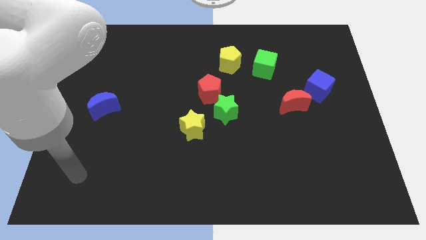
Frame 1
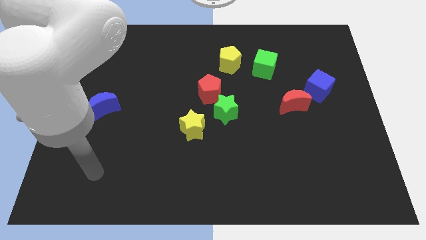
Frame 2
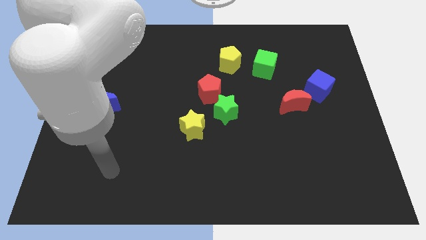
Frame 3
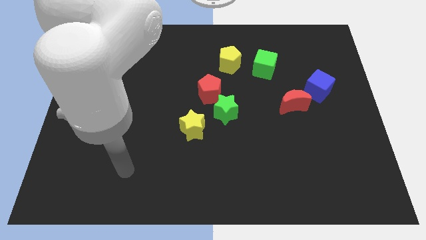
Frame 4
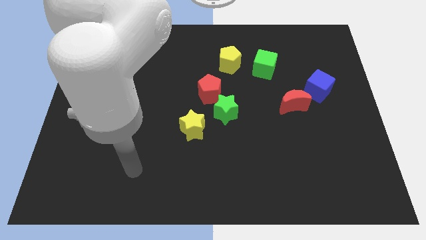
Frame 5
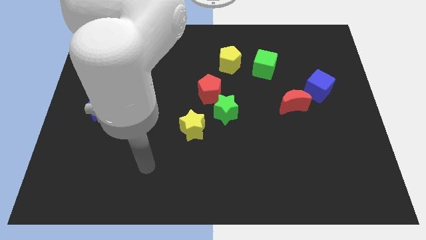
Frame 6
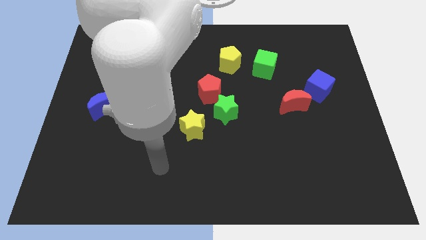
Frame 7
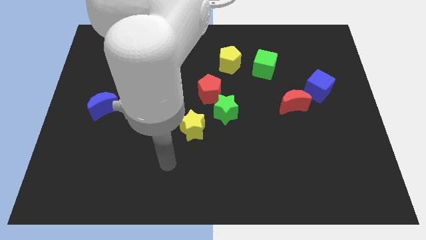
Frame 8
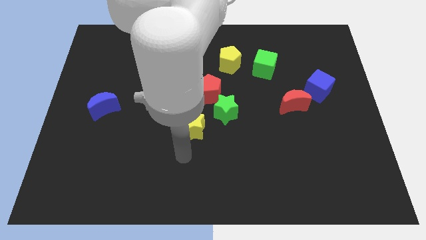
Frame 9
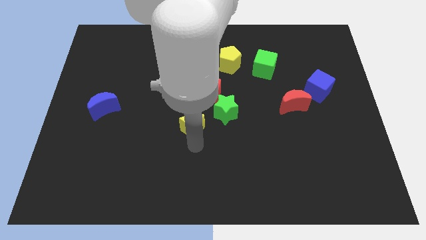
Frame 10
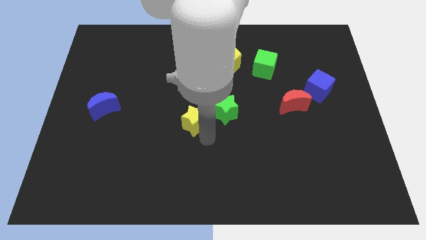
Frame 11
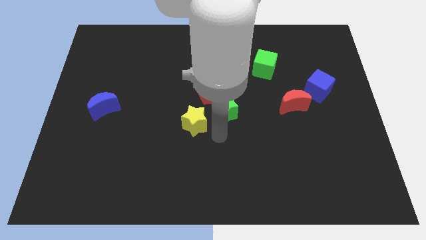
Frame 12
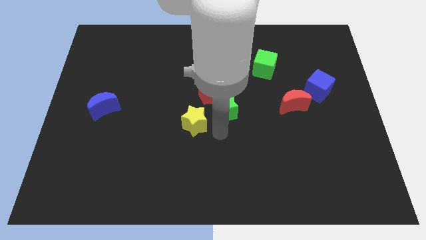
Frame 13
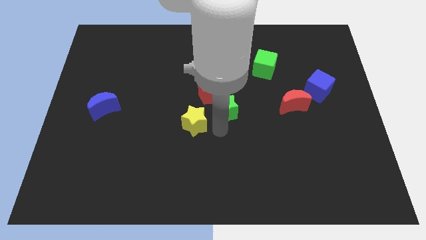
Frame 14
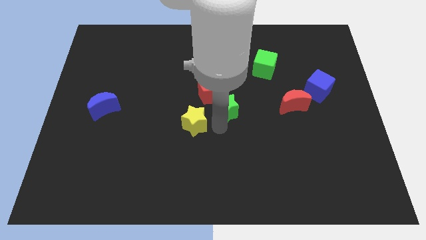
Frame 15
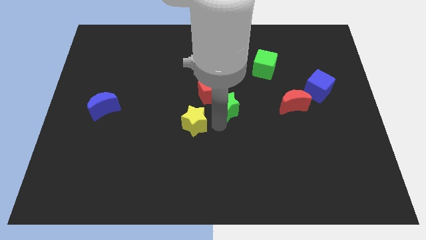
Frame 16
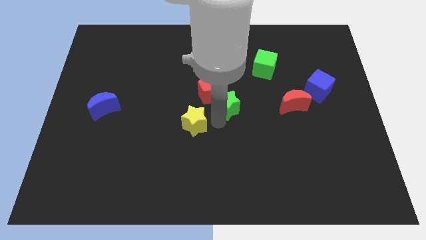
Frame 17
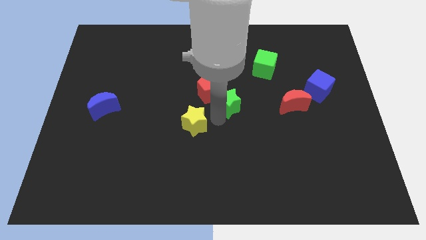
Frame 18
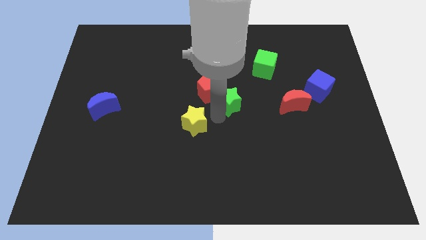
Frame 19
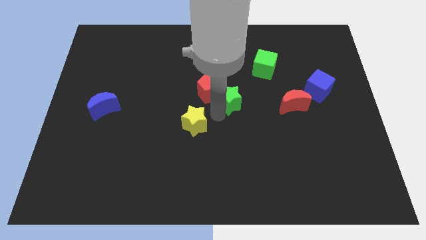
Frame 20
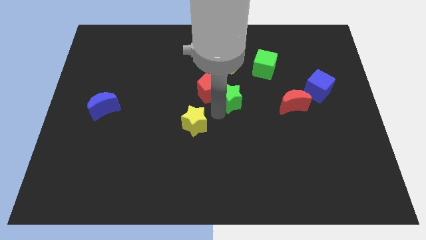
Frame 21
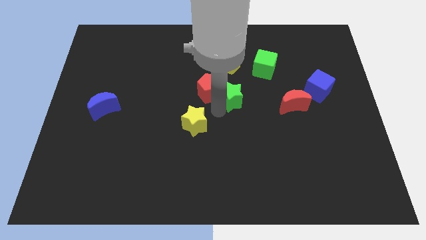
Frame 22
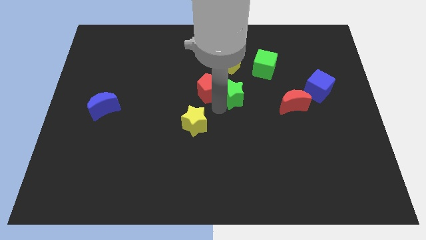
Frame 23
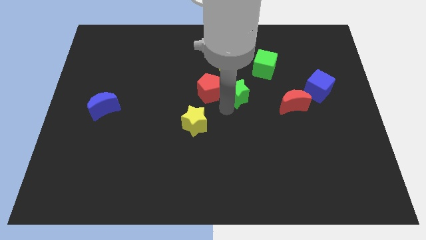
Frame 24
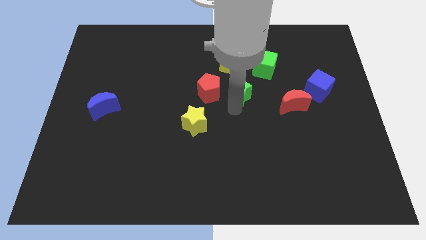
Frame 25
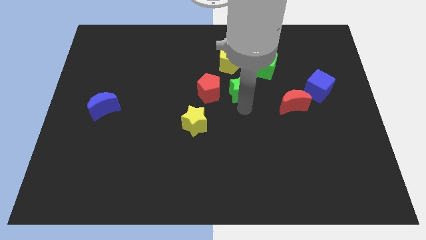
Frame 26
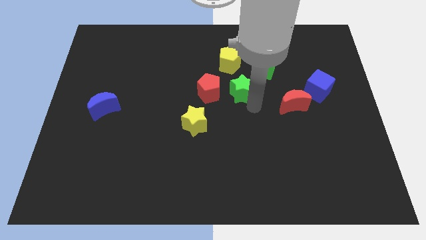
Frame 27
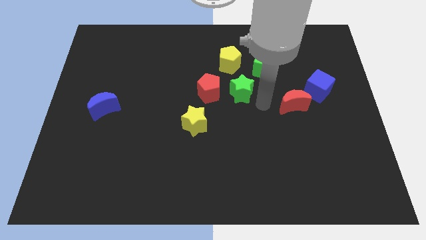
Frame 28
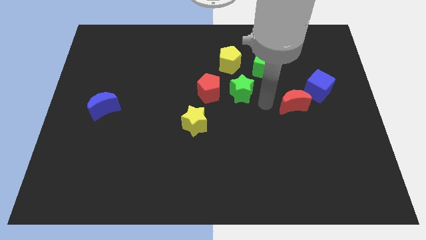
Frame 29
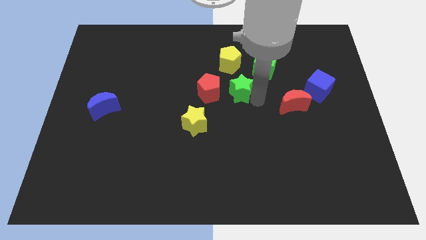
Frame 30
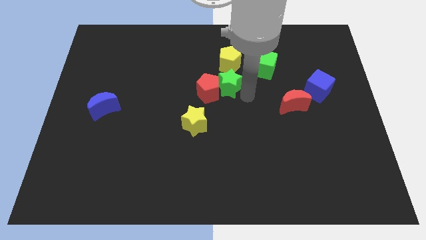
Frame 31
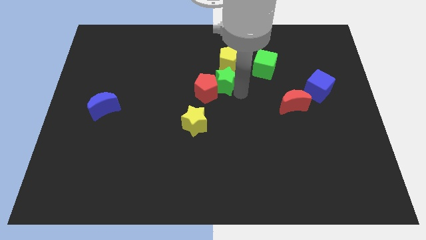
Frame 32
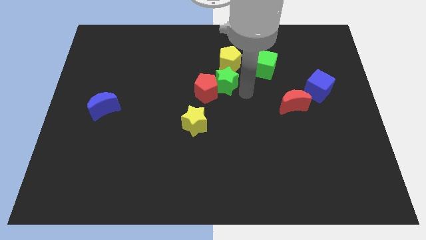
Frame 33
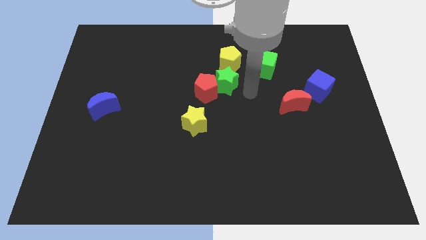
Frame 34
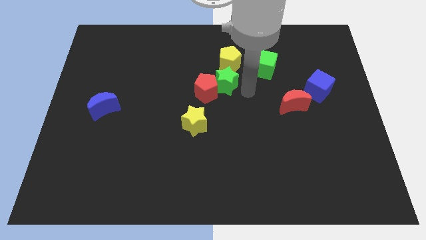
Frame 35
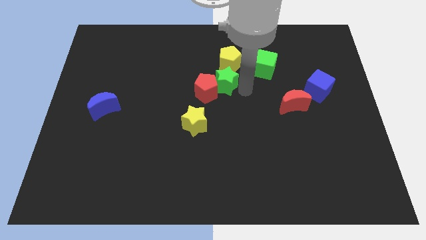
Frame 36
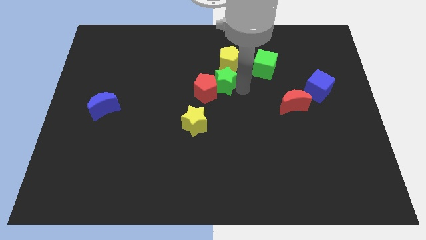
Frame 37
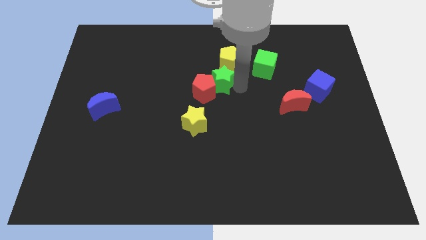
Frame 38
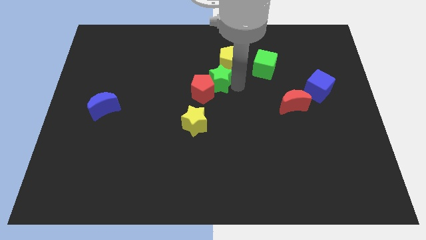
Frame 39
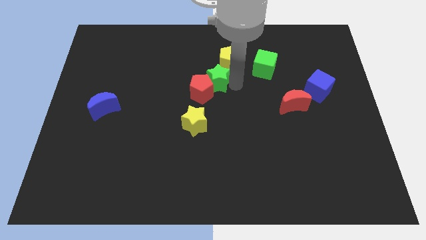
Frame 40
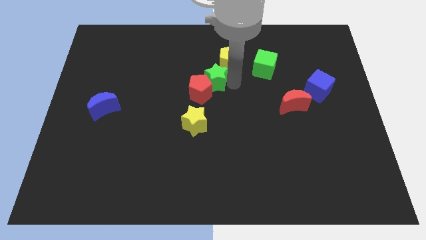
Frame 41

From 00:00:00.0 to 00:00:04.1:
slightly slide the green star diagonally upwards and left

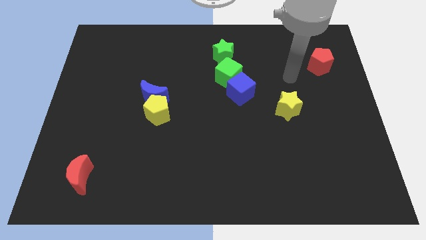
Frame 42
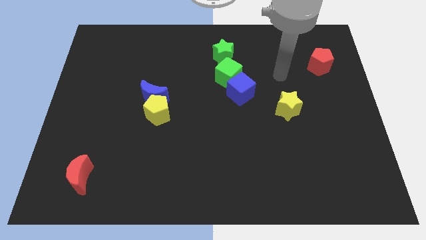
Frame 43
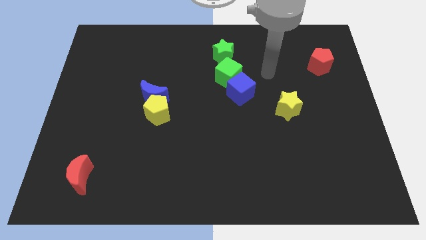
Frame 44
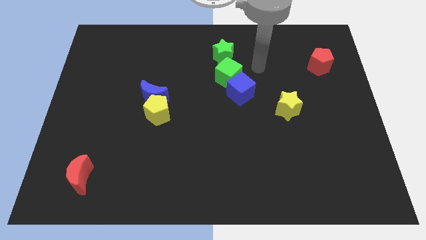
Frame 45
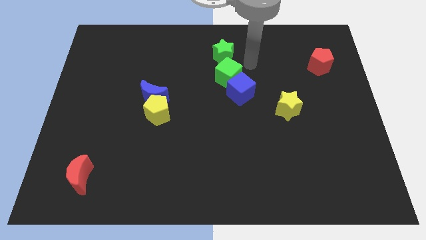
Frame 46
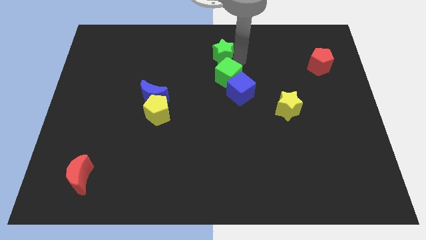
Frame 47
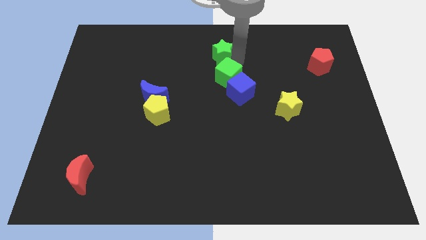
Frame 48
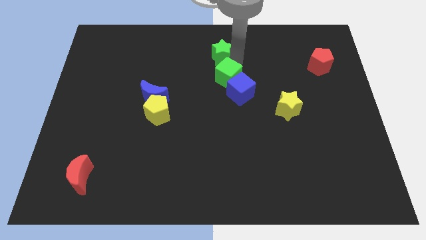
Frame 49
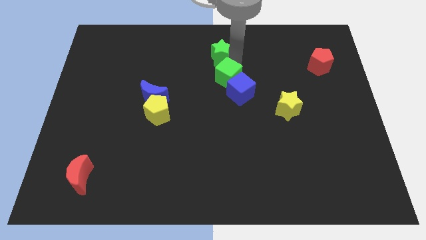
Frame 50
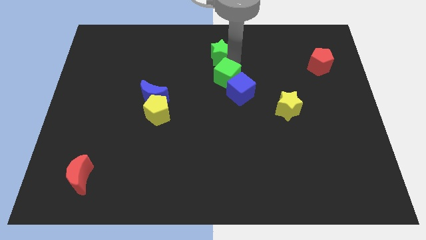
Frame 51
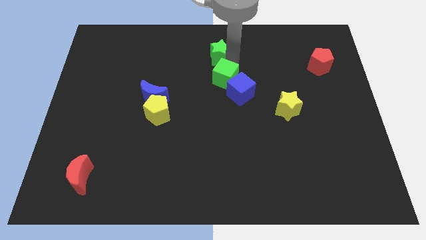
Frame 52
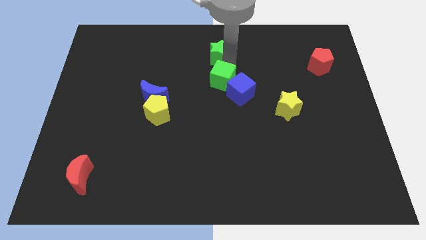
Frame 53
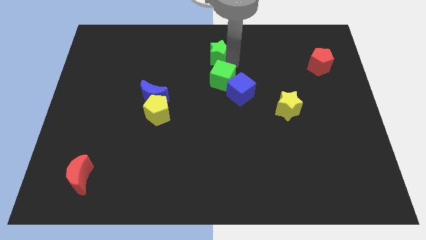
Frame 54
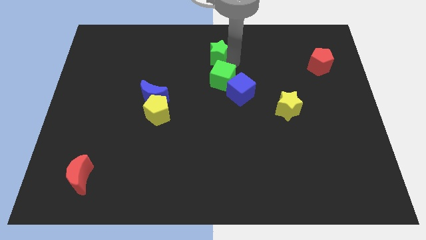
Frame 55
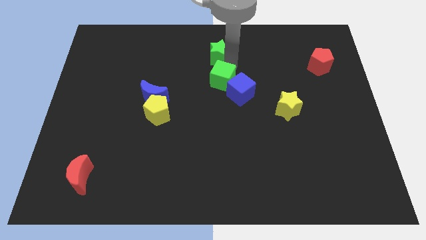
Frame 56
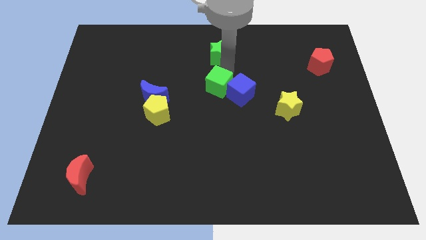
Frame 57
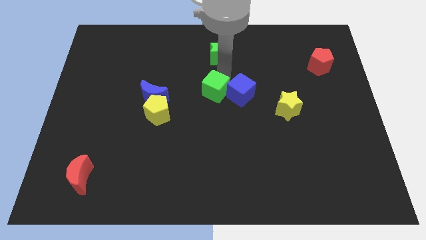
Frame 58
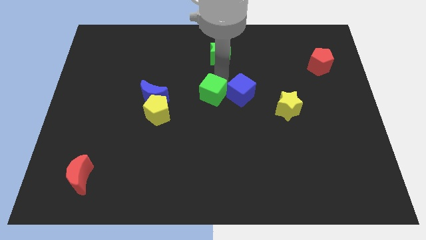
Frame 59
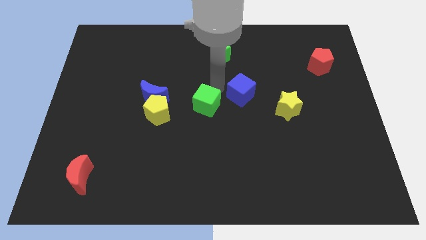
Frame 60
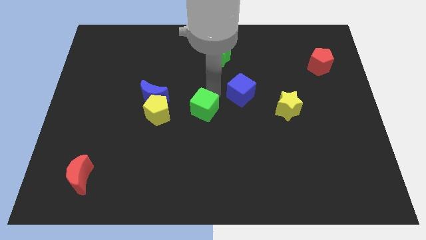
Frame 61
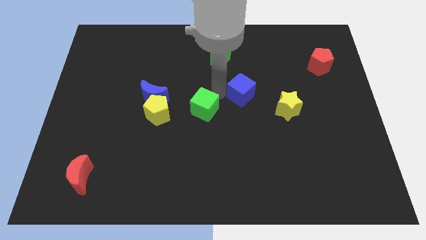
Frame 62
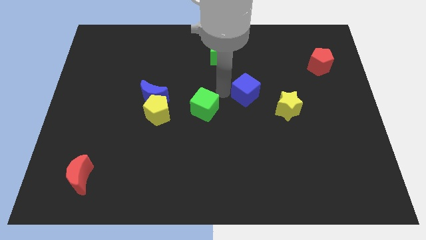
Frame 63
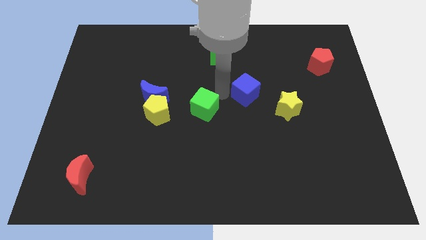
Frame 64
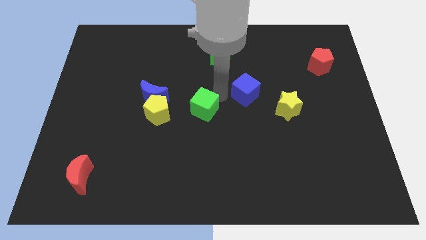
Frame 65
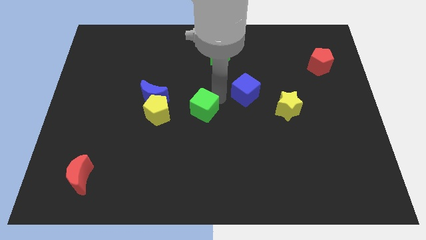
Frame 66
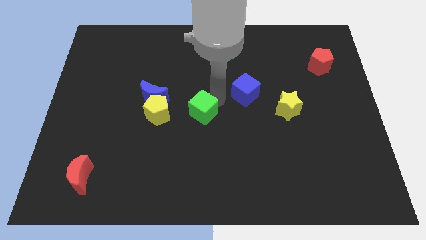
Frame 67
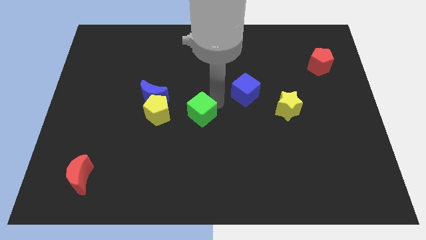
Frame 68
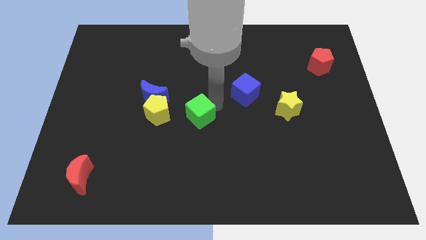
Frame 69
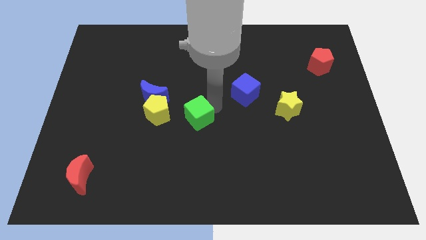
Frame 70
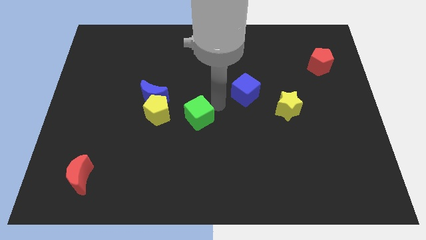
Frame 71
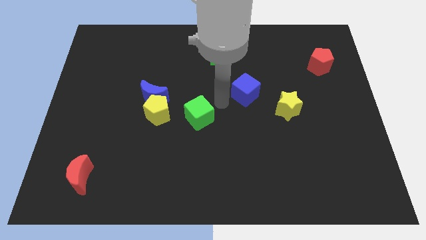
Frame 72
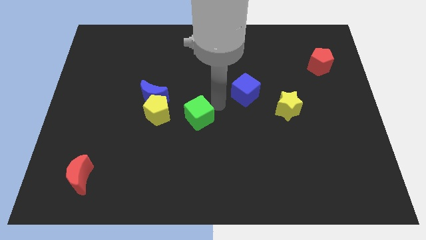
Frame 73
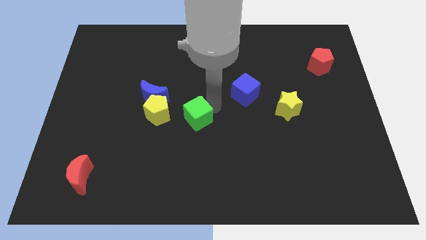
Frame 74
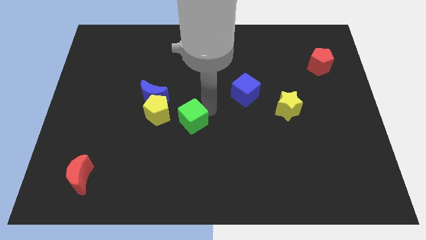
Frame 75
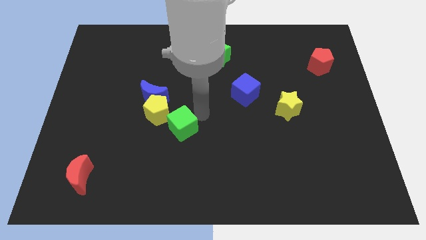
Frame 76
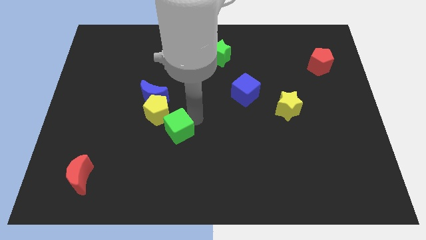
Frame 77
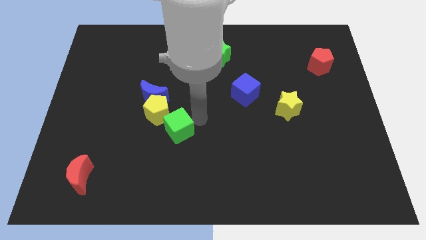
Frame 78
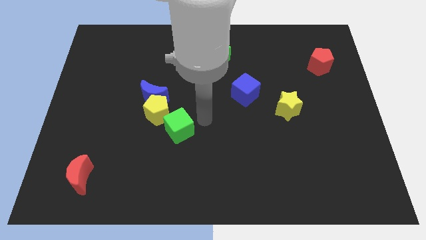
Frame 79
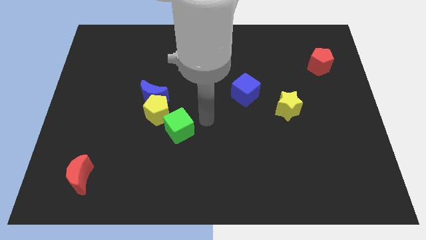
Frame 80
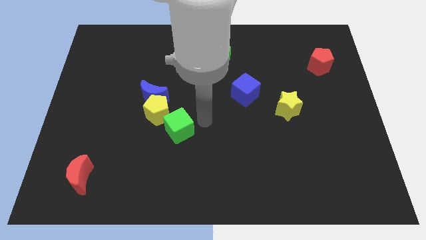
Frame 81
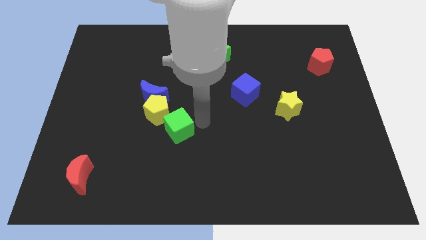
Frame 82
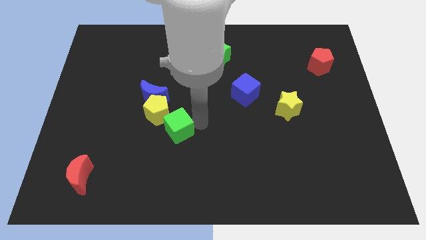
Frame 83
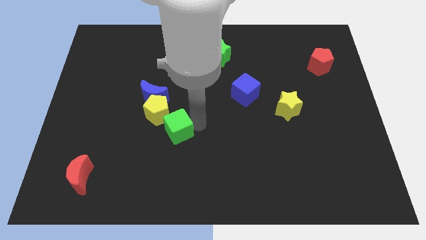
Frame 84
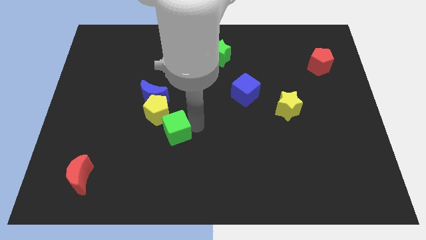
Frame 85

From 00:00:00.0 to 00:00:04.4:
move the green cube diagonally down and to the left
